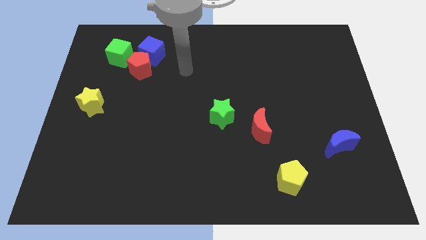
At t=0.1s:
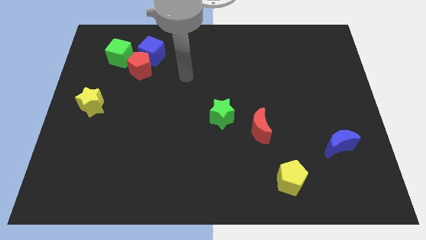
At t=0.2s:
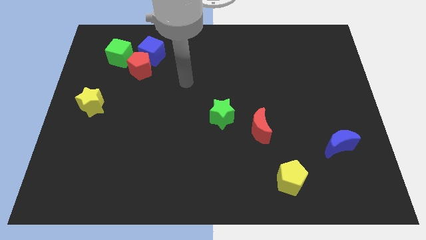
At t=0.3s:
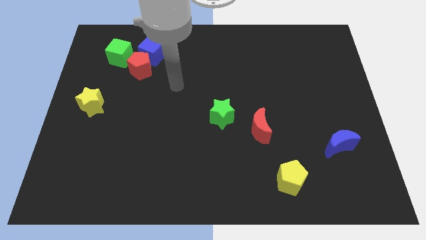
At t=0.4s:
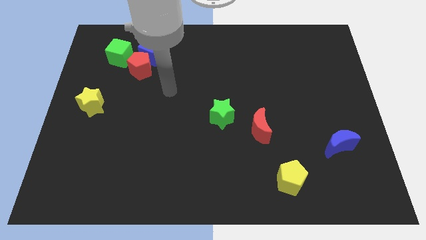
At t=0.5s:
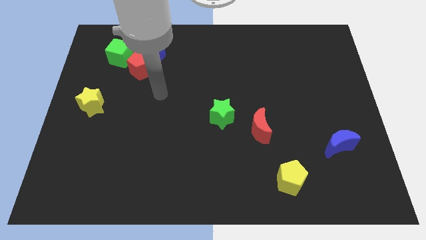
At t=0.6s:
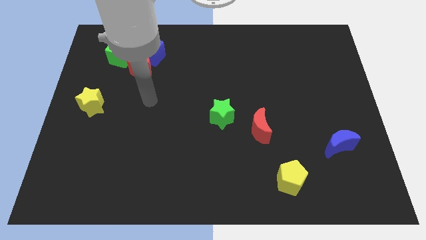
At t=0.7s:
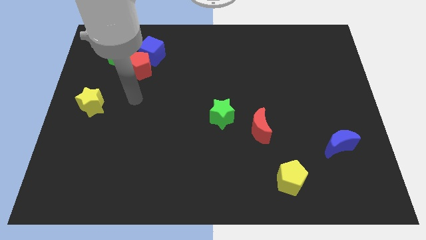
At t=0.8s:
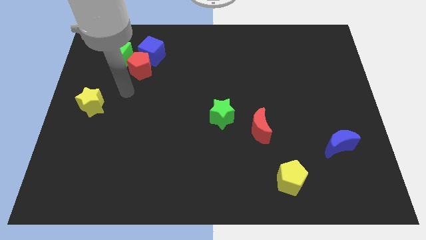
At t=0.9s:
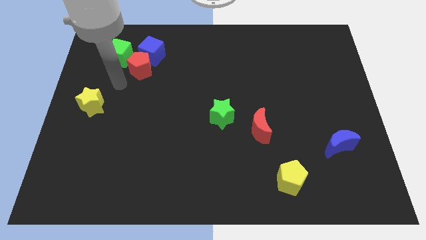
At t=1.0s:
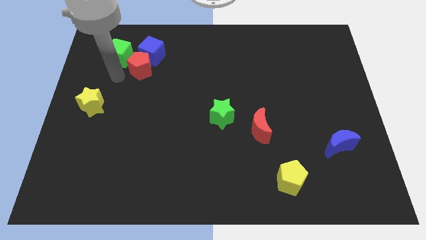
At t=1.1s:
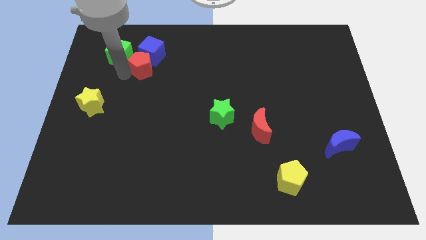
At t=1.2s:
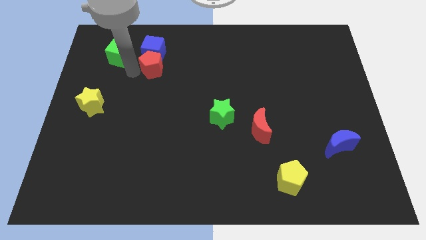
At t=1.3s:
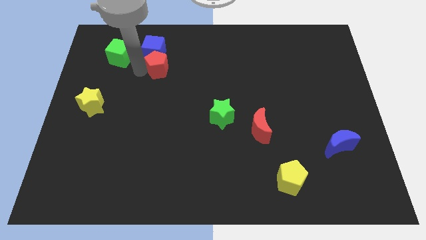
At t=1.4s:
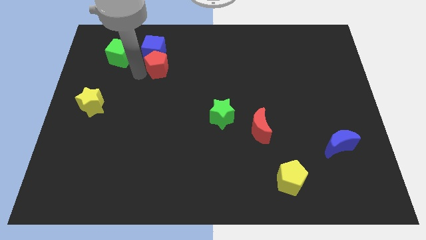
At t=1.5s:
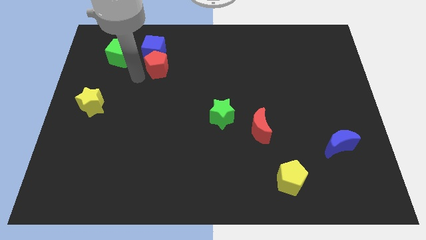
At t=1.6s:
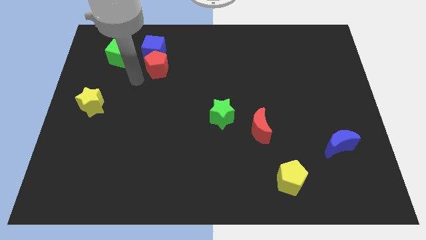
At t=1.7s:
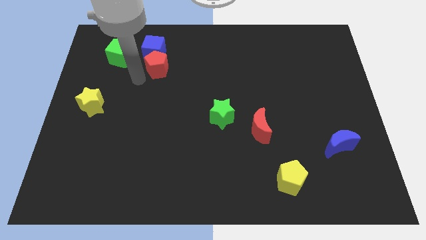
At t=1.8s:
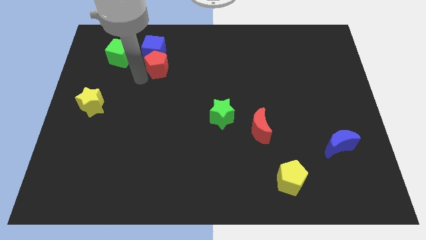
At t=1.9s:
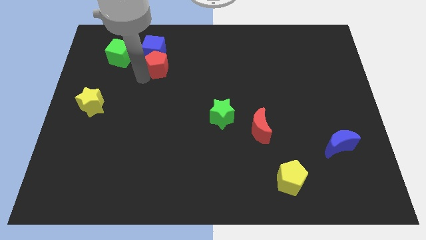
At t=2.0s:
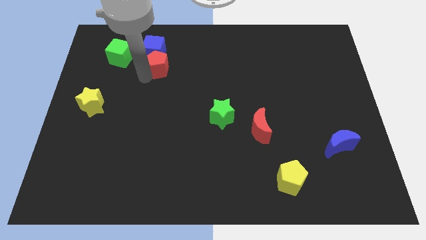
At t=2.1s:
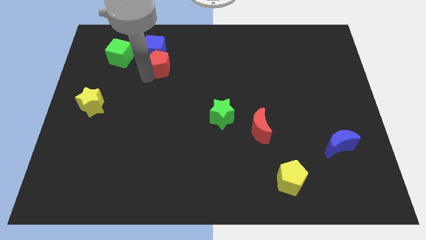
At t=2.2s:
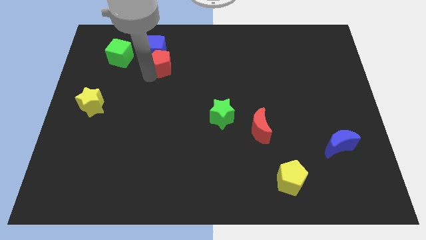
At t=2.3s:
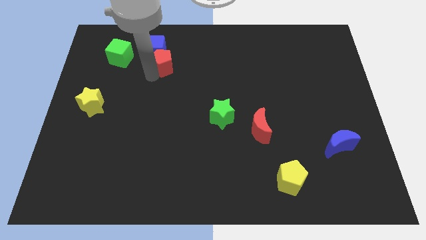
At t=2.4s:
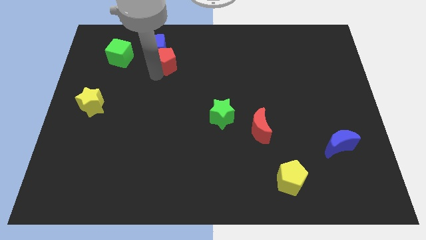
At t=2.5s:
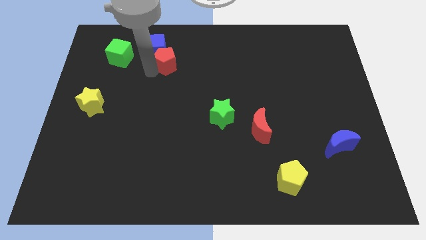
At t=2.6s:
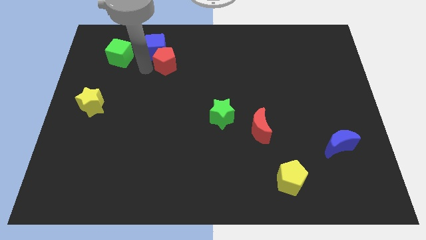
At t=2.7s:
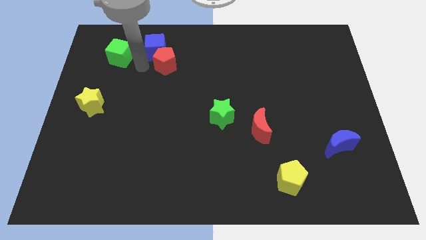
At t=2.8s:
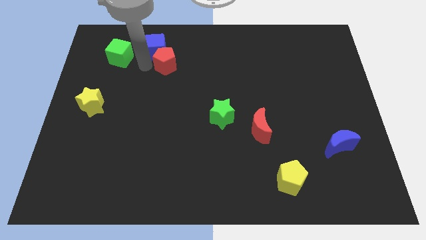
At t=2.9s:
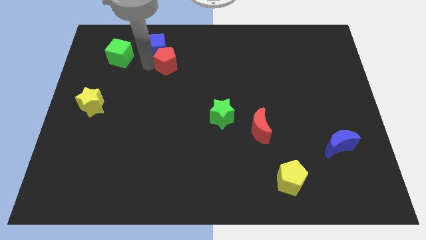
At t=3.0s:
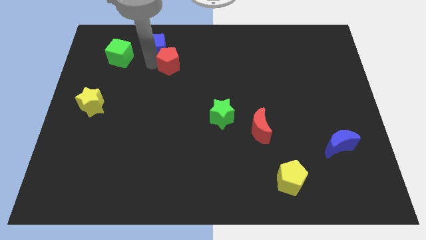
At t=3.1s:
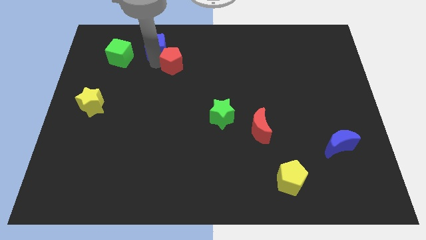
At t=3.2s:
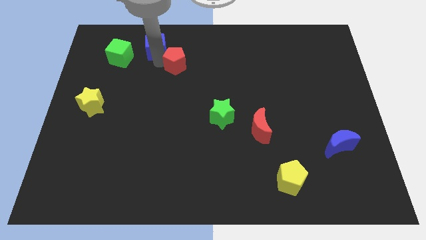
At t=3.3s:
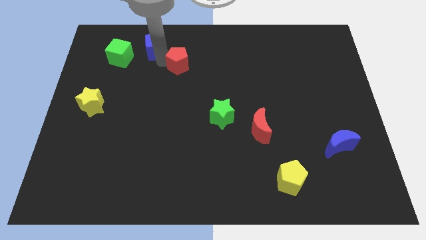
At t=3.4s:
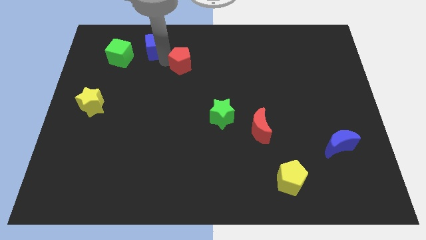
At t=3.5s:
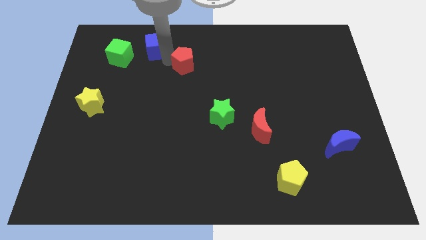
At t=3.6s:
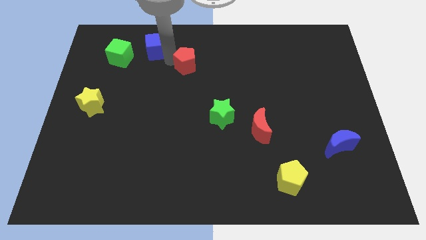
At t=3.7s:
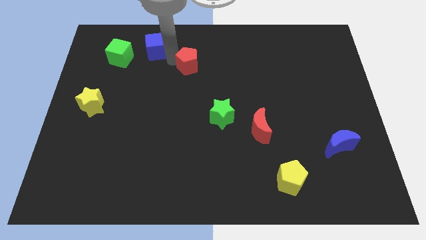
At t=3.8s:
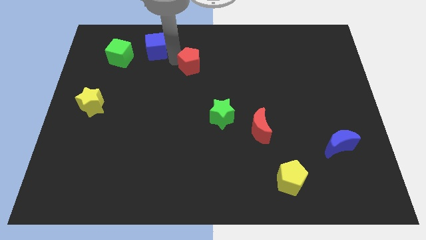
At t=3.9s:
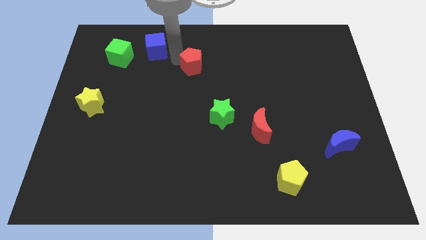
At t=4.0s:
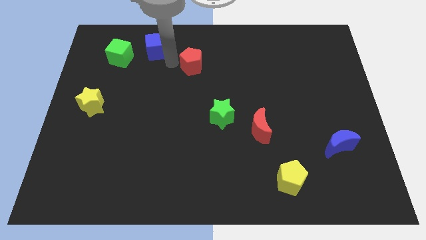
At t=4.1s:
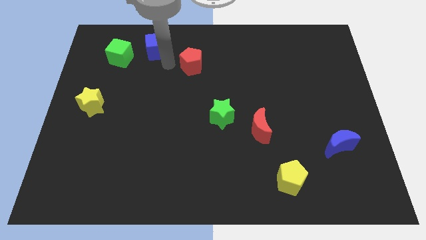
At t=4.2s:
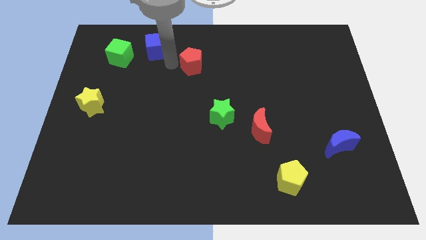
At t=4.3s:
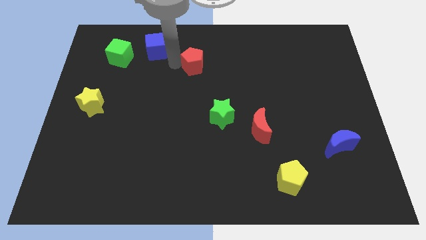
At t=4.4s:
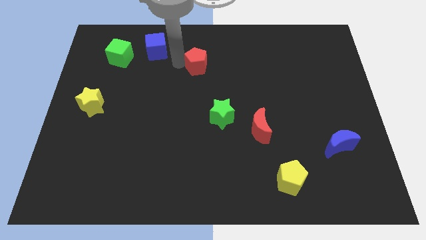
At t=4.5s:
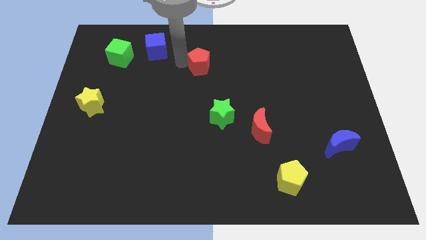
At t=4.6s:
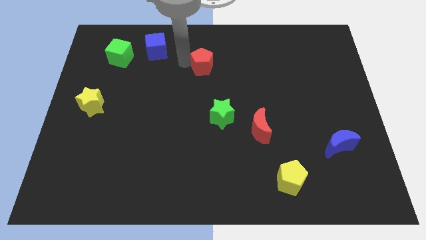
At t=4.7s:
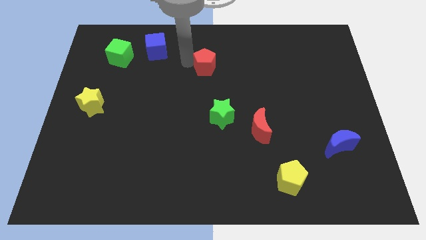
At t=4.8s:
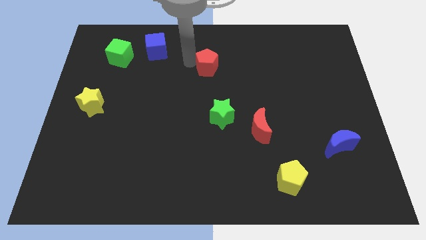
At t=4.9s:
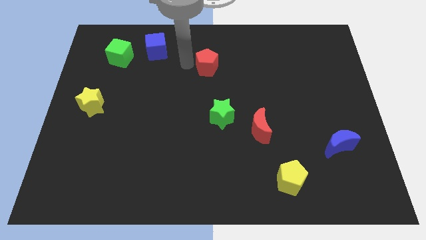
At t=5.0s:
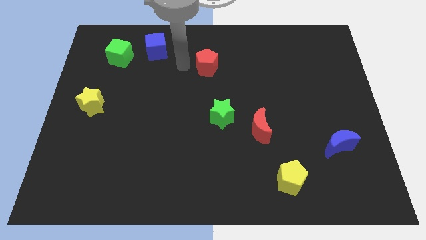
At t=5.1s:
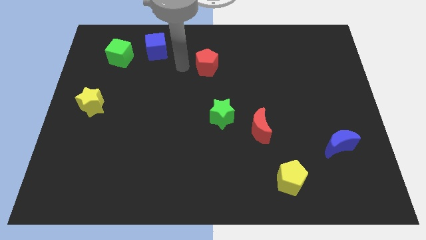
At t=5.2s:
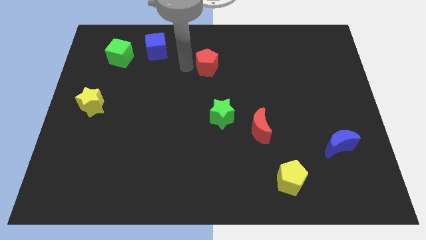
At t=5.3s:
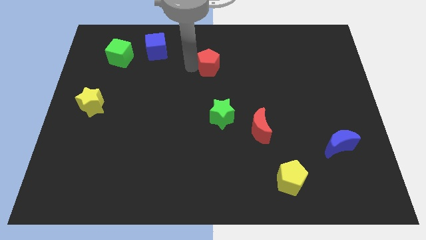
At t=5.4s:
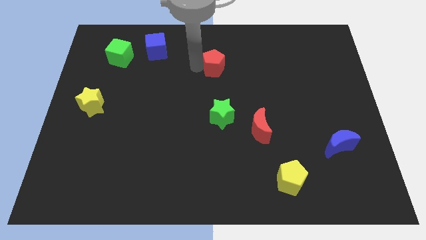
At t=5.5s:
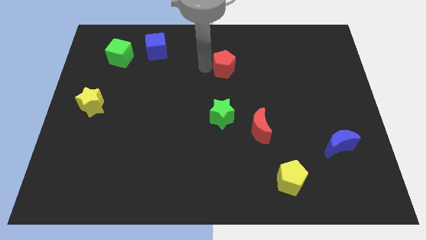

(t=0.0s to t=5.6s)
move the red pentagon right

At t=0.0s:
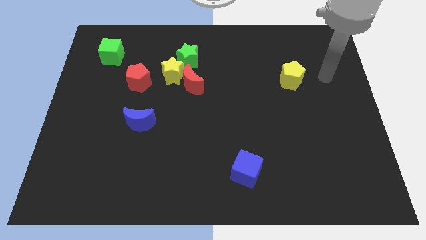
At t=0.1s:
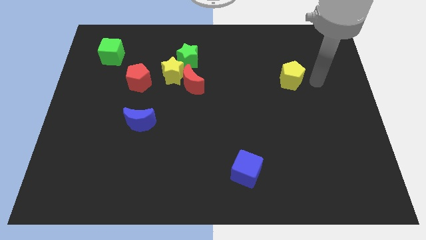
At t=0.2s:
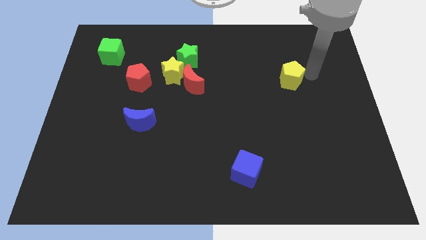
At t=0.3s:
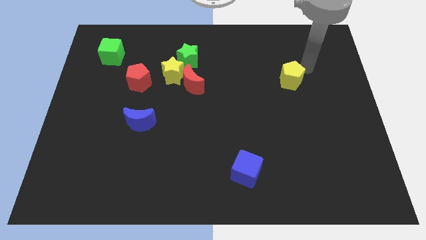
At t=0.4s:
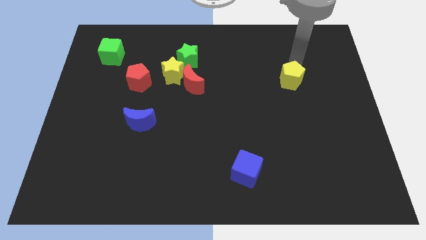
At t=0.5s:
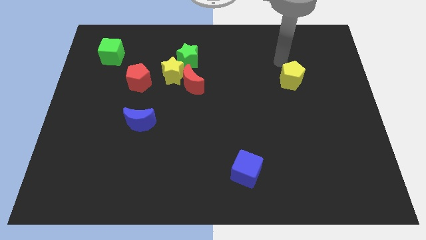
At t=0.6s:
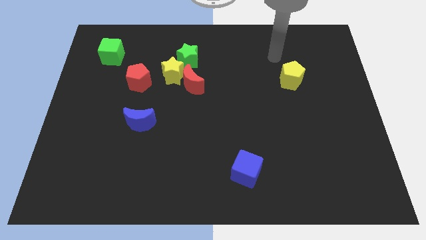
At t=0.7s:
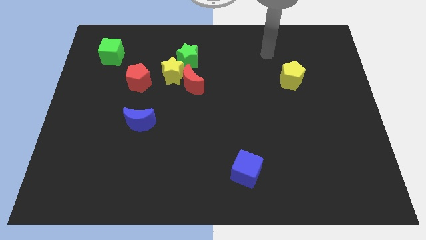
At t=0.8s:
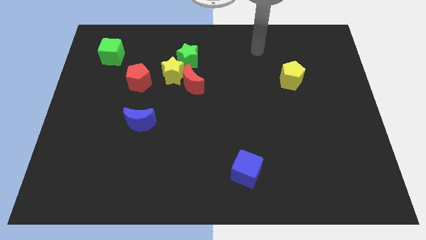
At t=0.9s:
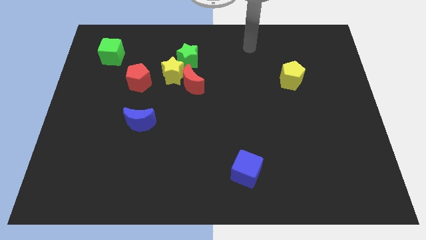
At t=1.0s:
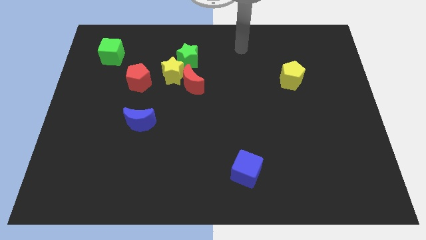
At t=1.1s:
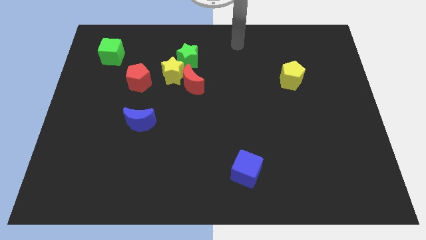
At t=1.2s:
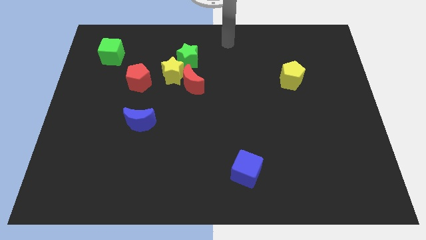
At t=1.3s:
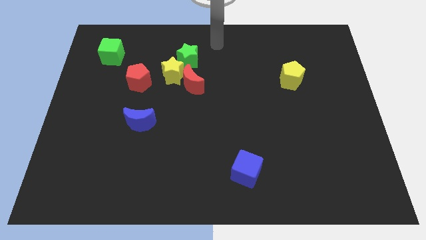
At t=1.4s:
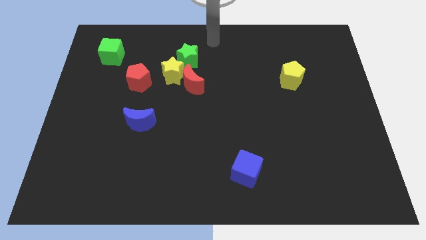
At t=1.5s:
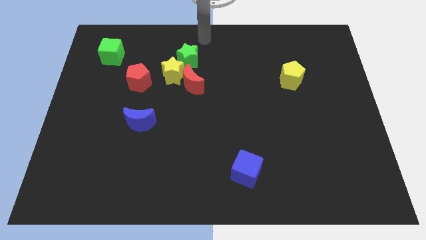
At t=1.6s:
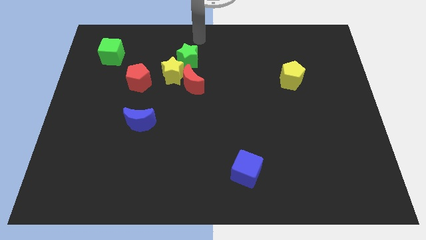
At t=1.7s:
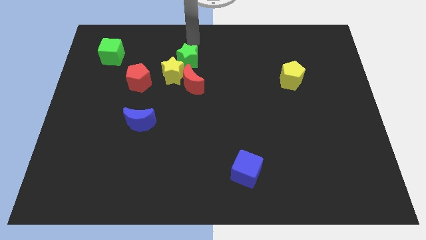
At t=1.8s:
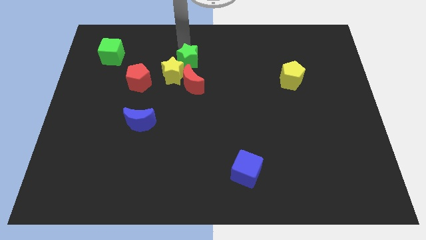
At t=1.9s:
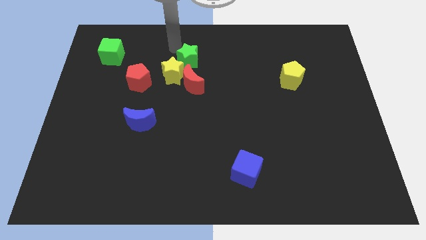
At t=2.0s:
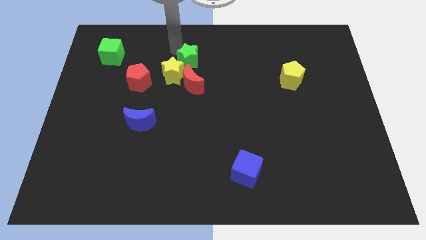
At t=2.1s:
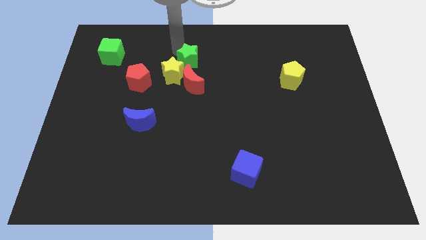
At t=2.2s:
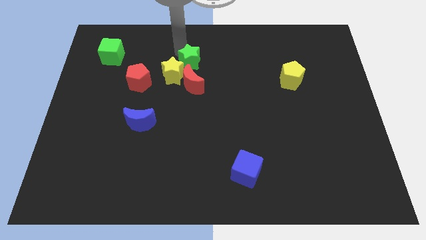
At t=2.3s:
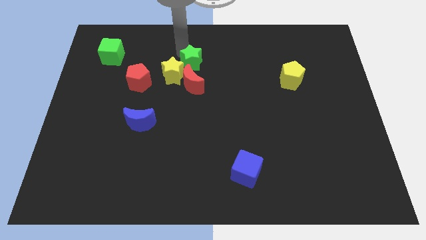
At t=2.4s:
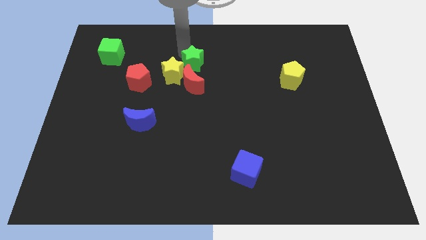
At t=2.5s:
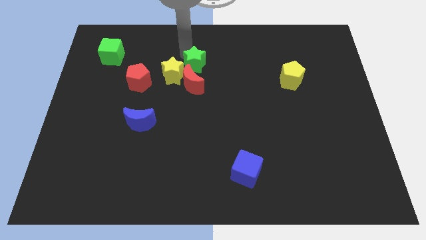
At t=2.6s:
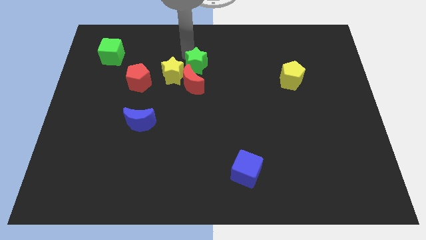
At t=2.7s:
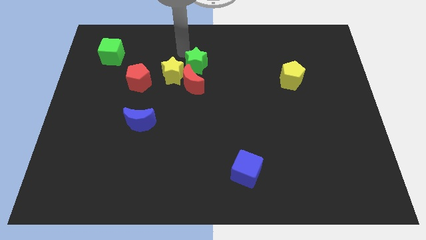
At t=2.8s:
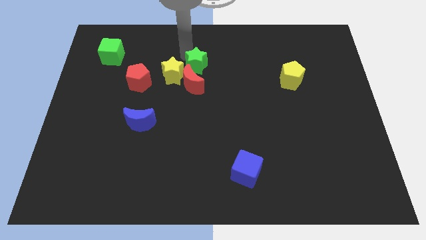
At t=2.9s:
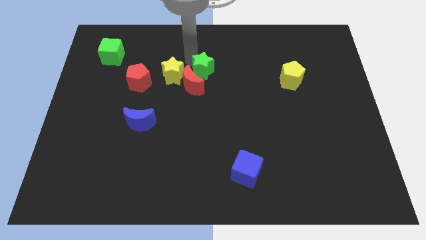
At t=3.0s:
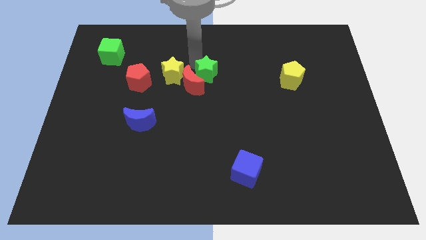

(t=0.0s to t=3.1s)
slightly push the green star downwards and then to the right
